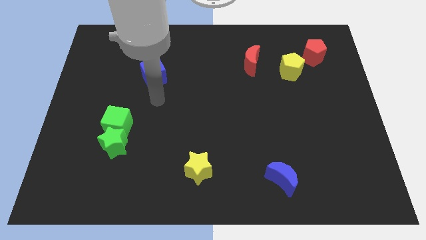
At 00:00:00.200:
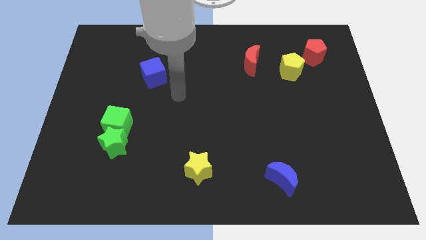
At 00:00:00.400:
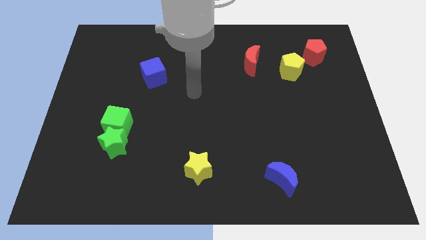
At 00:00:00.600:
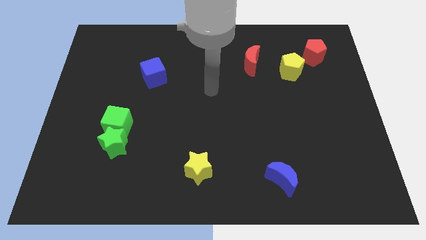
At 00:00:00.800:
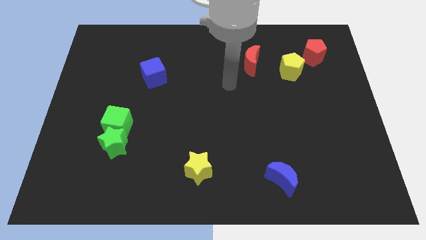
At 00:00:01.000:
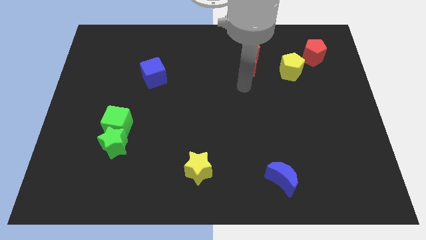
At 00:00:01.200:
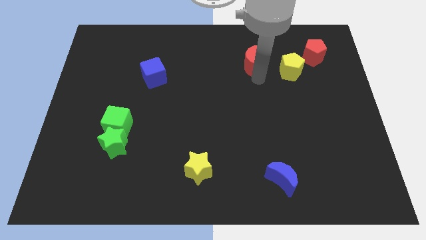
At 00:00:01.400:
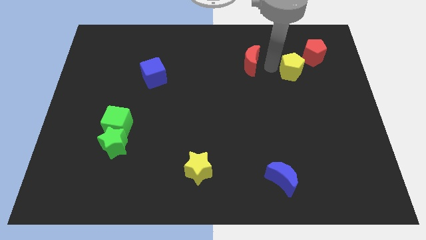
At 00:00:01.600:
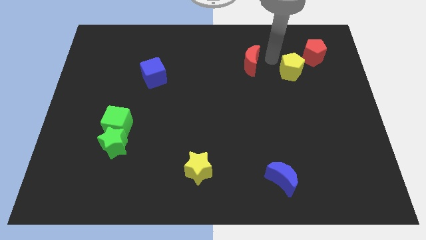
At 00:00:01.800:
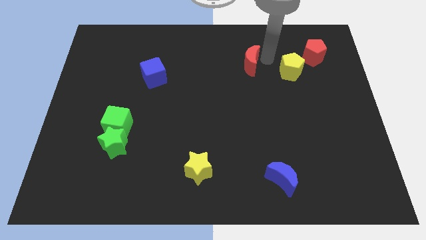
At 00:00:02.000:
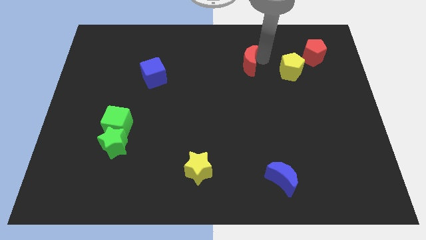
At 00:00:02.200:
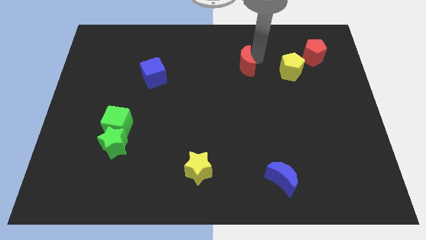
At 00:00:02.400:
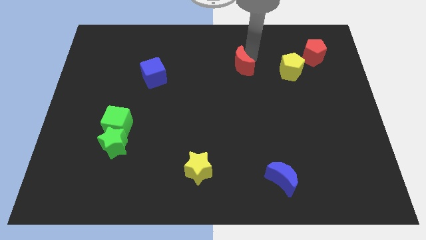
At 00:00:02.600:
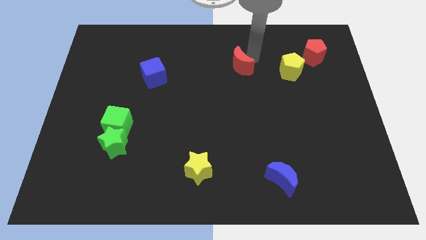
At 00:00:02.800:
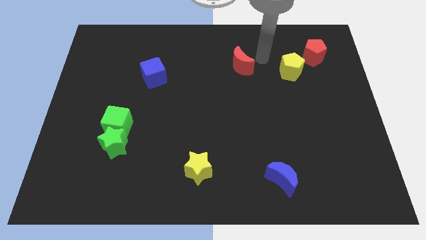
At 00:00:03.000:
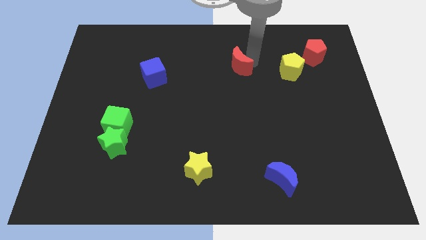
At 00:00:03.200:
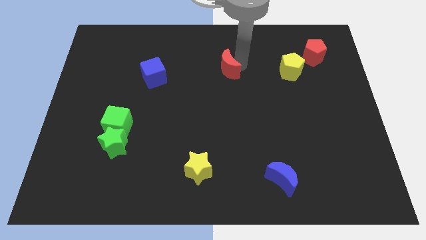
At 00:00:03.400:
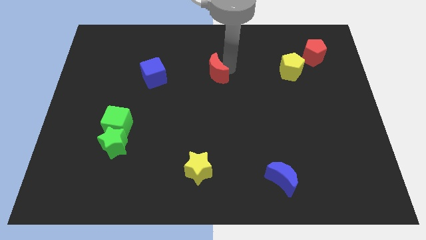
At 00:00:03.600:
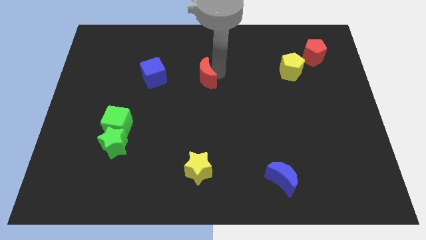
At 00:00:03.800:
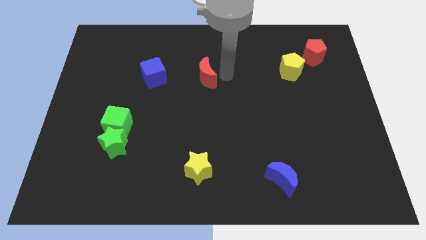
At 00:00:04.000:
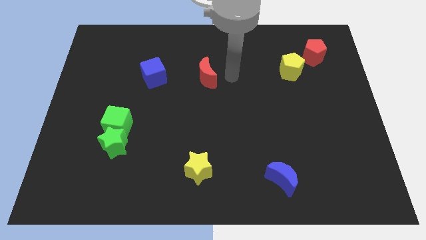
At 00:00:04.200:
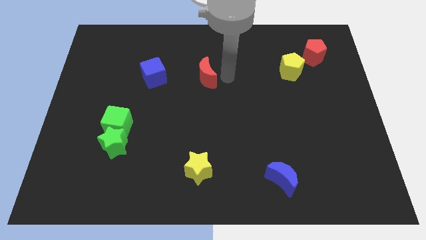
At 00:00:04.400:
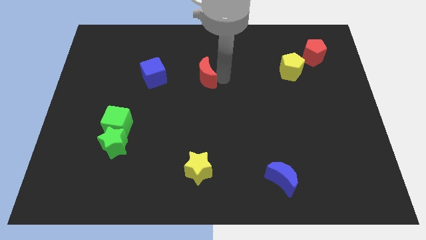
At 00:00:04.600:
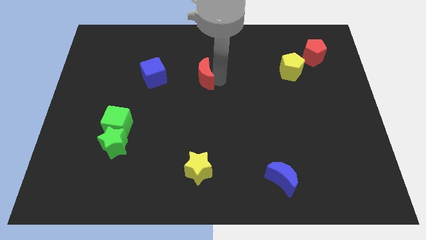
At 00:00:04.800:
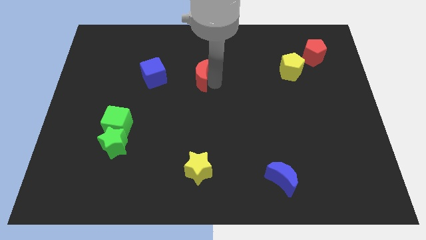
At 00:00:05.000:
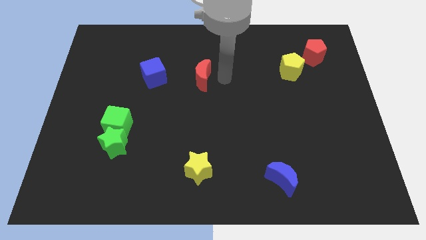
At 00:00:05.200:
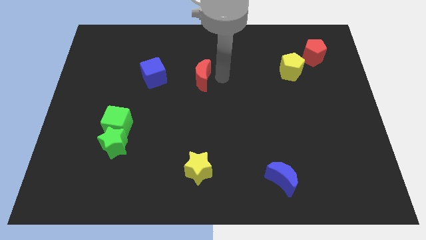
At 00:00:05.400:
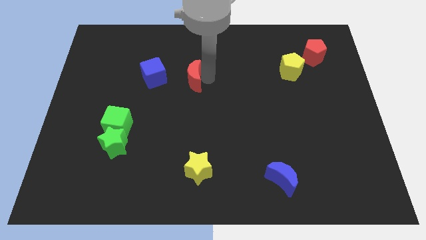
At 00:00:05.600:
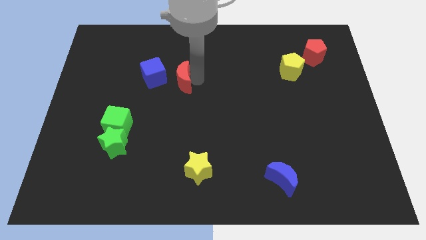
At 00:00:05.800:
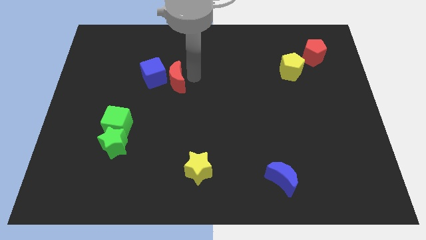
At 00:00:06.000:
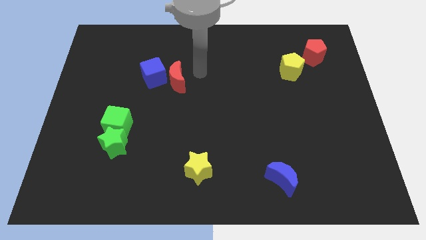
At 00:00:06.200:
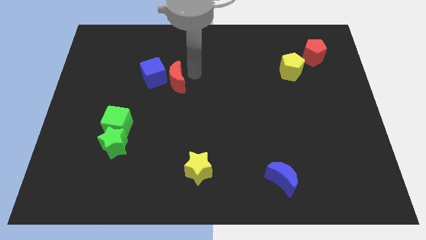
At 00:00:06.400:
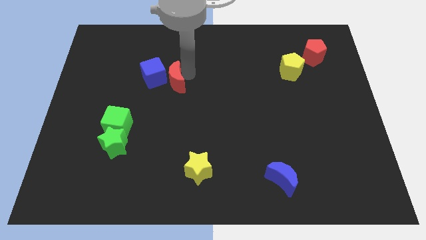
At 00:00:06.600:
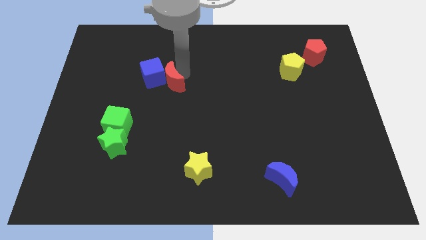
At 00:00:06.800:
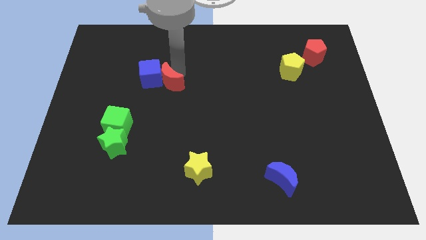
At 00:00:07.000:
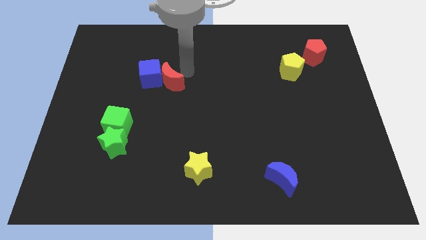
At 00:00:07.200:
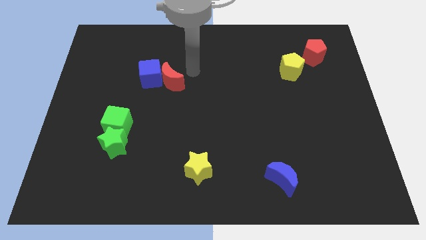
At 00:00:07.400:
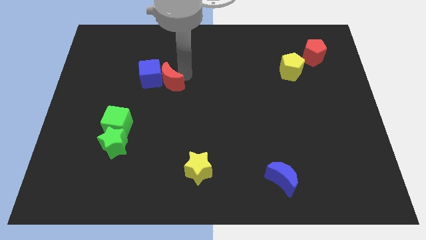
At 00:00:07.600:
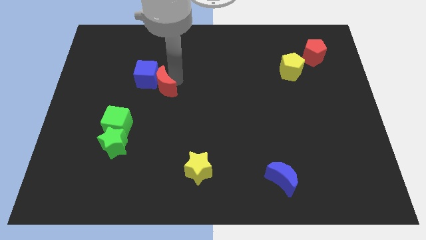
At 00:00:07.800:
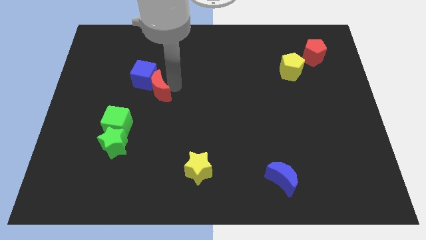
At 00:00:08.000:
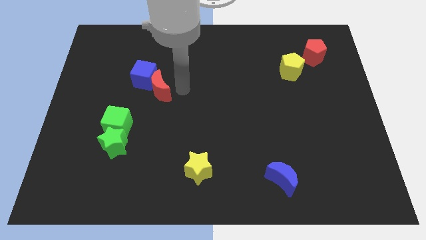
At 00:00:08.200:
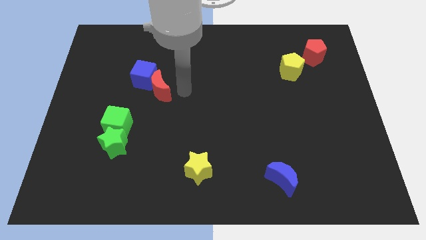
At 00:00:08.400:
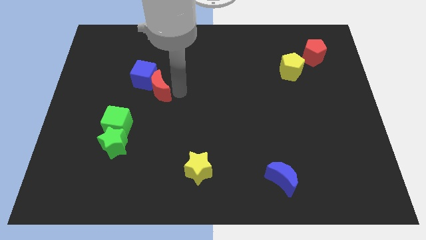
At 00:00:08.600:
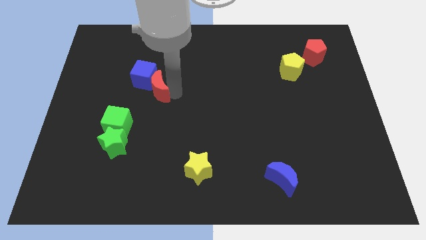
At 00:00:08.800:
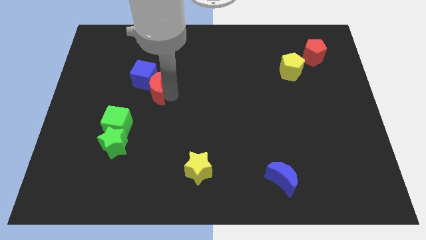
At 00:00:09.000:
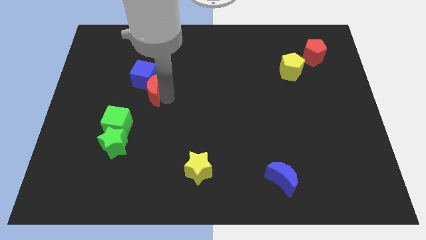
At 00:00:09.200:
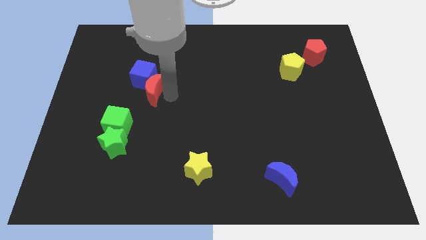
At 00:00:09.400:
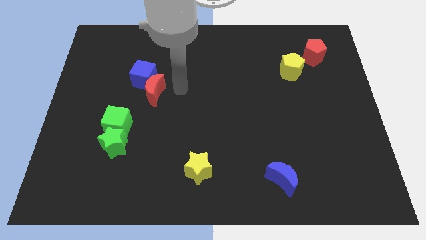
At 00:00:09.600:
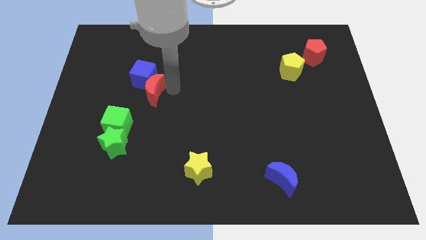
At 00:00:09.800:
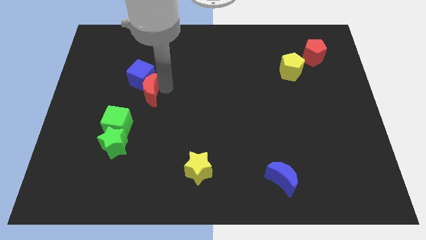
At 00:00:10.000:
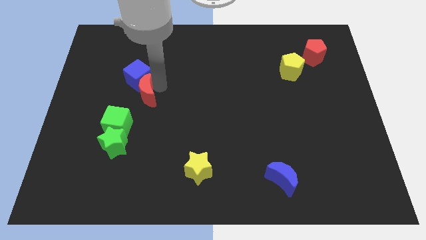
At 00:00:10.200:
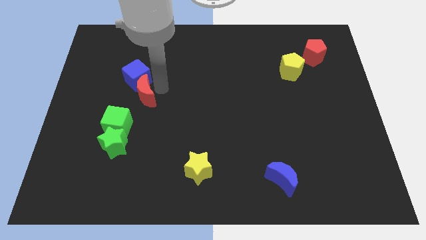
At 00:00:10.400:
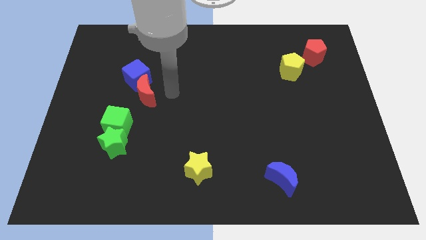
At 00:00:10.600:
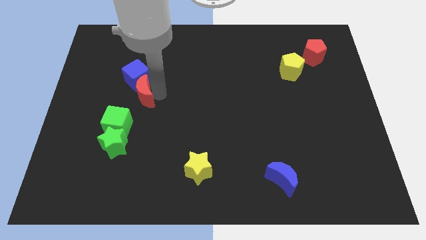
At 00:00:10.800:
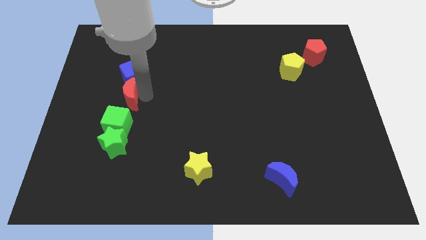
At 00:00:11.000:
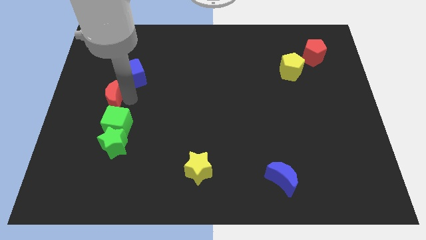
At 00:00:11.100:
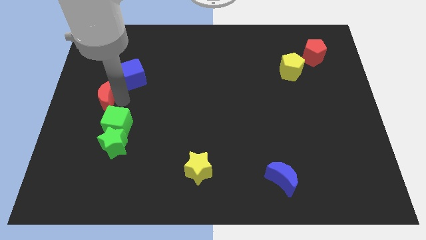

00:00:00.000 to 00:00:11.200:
put the red moon to the center left

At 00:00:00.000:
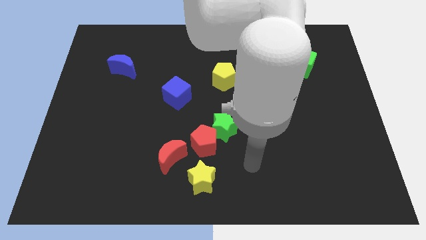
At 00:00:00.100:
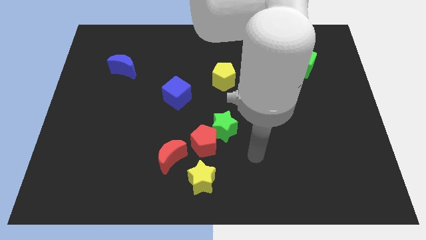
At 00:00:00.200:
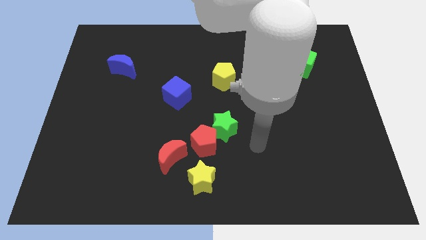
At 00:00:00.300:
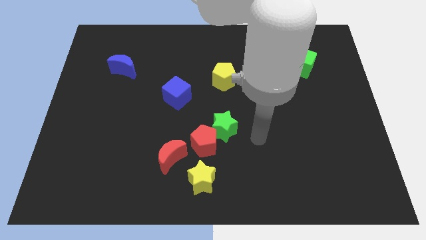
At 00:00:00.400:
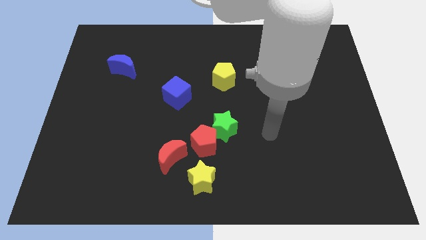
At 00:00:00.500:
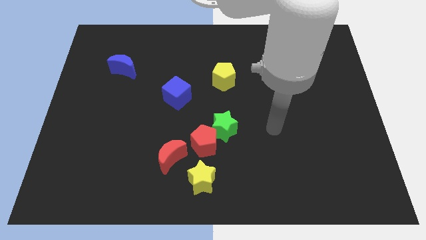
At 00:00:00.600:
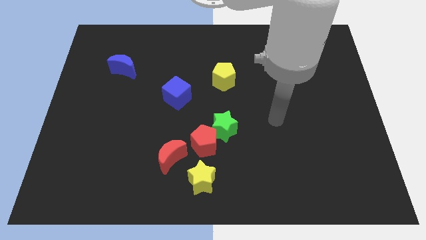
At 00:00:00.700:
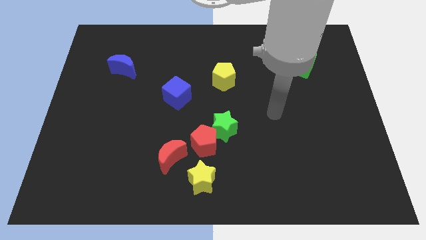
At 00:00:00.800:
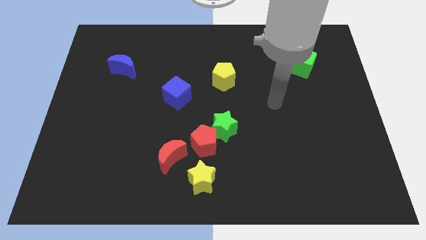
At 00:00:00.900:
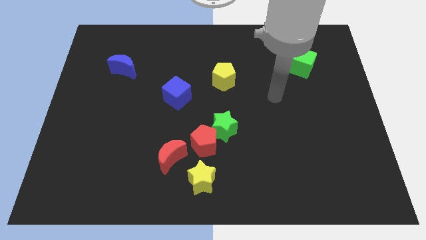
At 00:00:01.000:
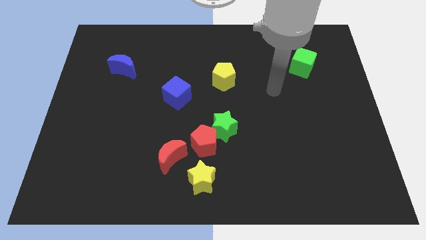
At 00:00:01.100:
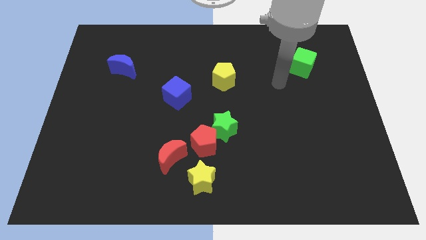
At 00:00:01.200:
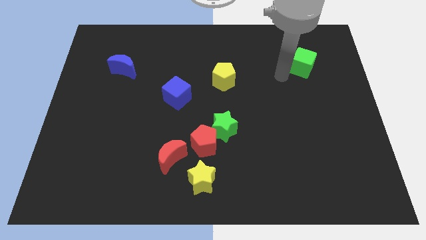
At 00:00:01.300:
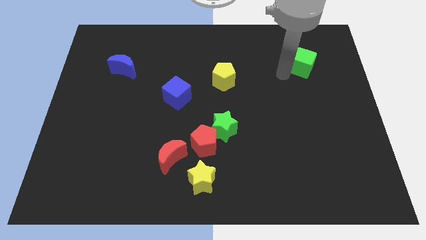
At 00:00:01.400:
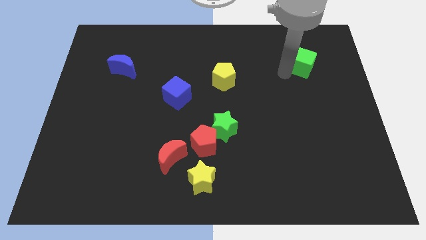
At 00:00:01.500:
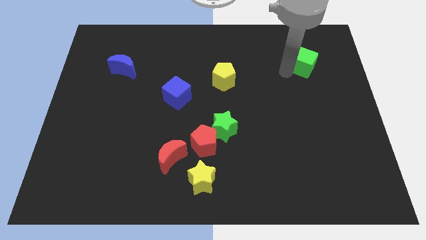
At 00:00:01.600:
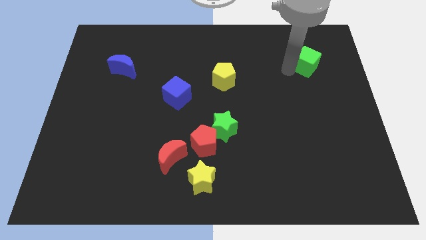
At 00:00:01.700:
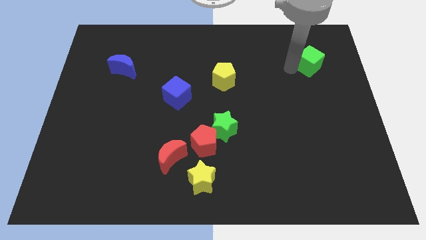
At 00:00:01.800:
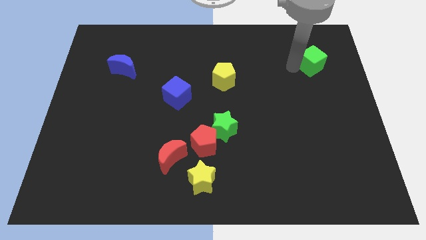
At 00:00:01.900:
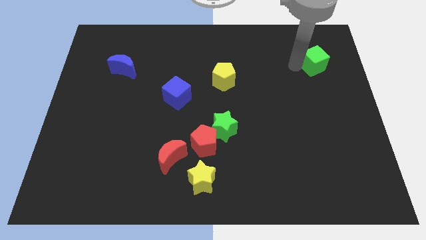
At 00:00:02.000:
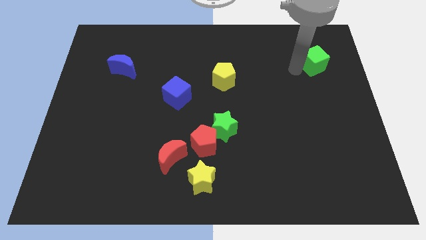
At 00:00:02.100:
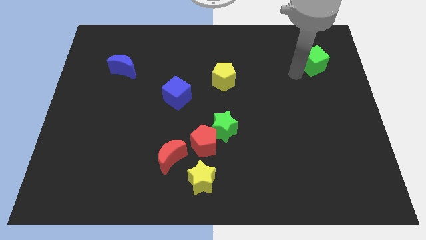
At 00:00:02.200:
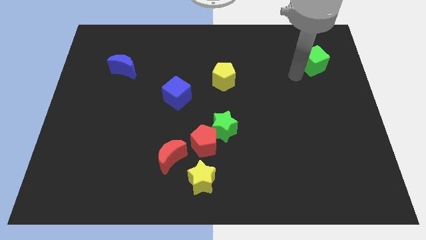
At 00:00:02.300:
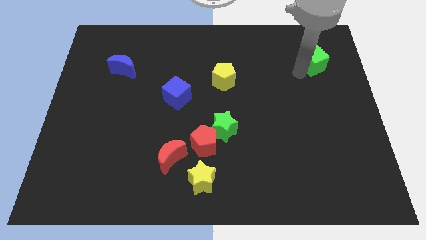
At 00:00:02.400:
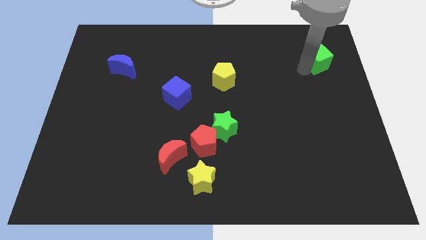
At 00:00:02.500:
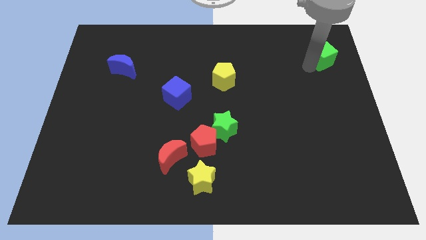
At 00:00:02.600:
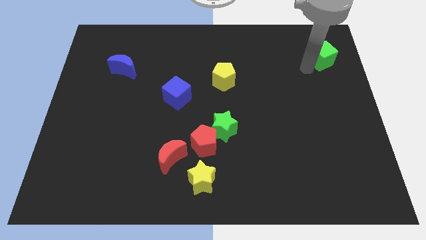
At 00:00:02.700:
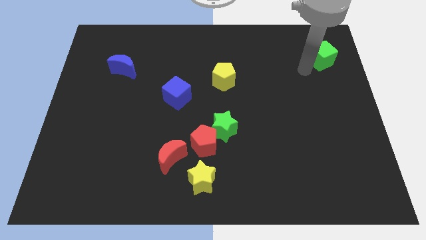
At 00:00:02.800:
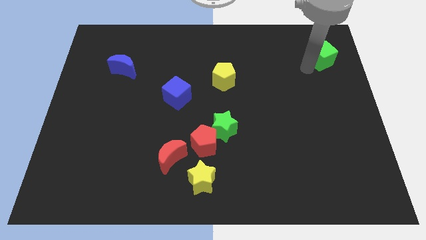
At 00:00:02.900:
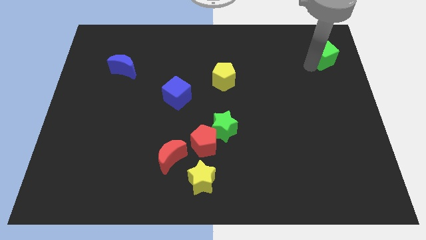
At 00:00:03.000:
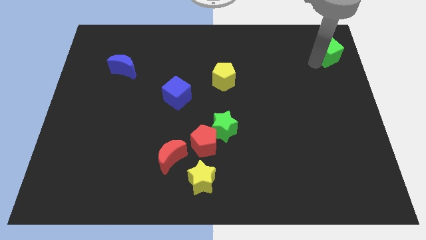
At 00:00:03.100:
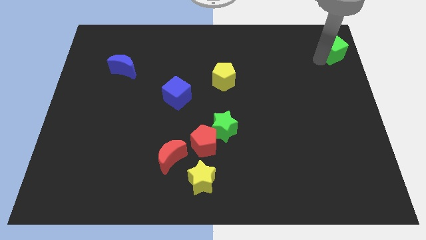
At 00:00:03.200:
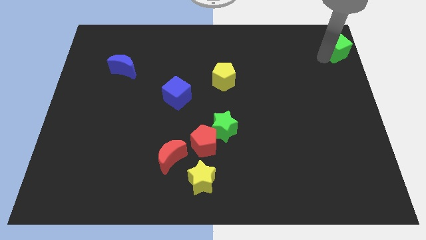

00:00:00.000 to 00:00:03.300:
put the green cube to the top right
